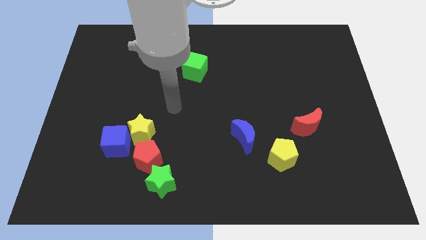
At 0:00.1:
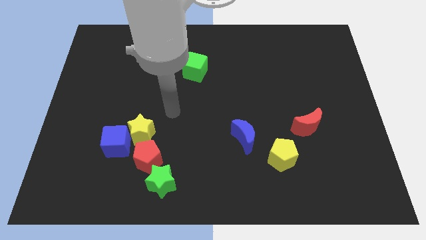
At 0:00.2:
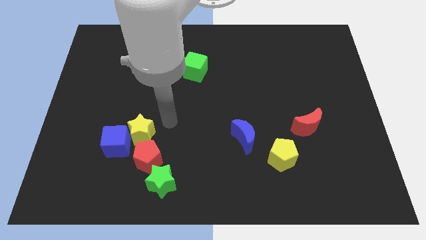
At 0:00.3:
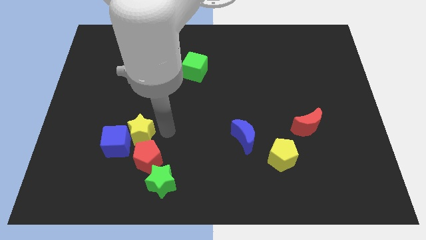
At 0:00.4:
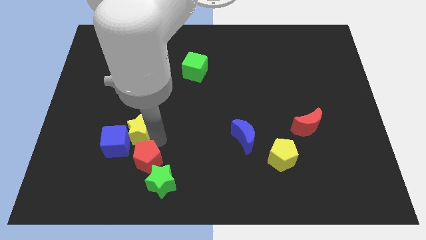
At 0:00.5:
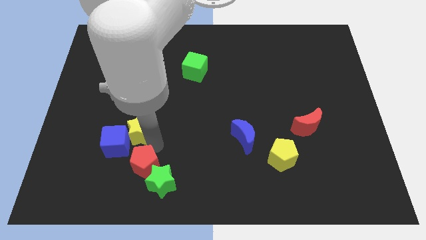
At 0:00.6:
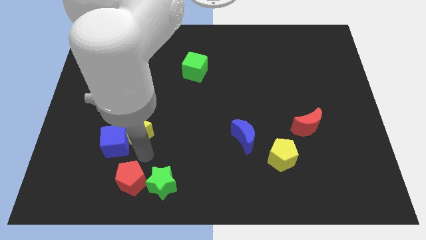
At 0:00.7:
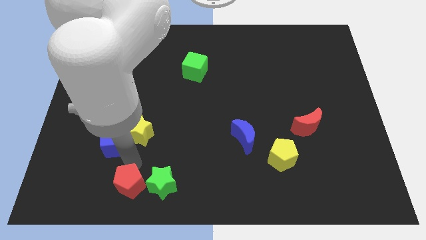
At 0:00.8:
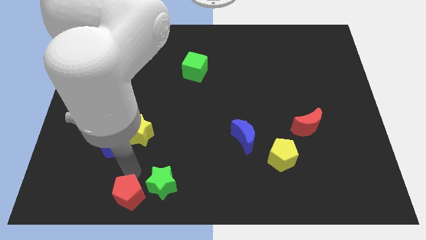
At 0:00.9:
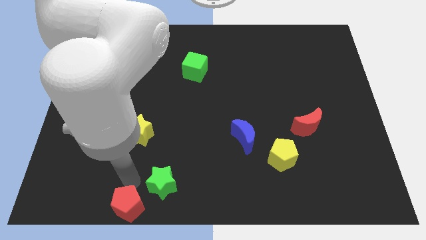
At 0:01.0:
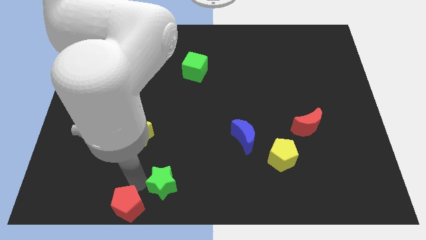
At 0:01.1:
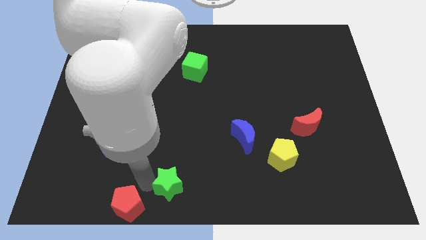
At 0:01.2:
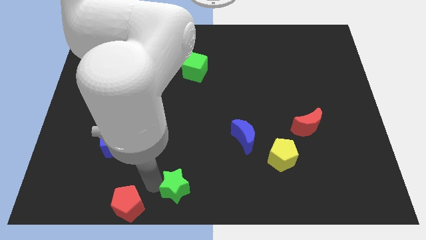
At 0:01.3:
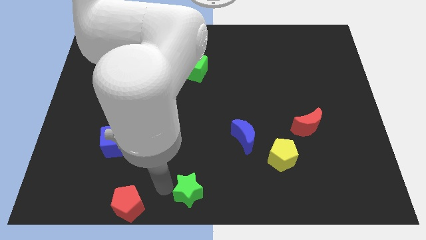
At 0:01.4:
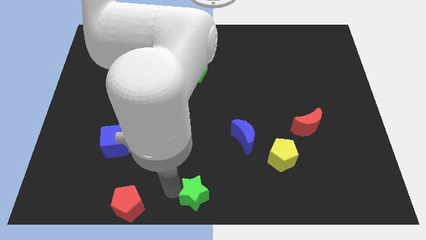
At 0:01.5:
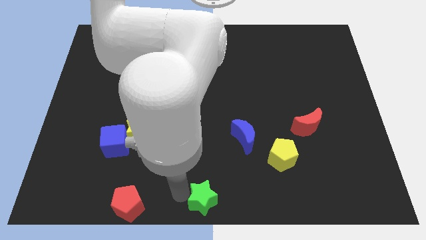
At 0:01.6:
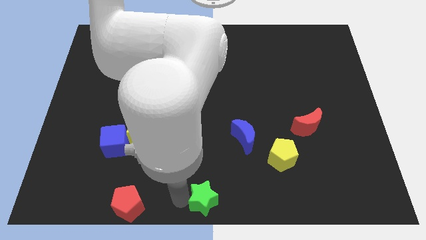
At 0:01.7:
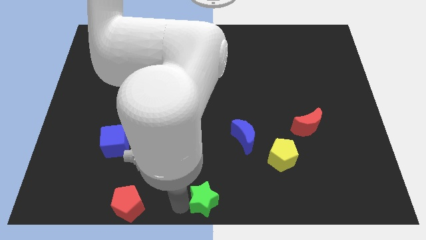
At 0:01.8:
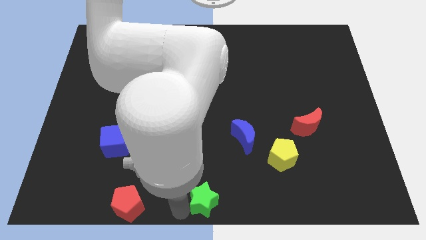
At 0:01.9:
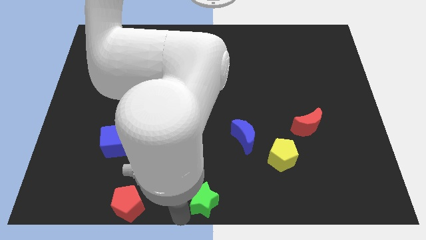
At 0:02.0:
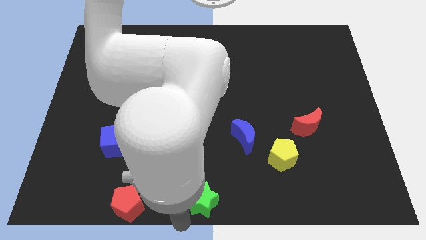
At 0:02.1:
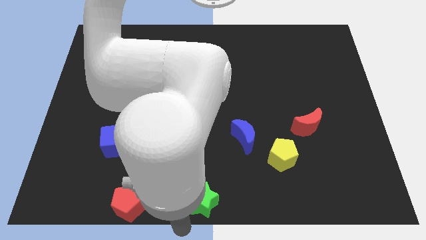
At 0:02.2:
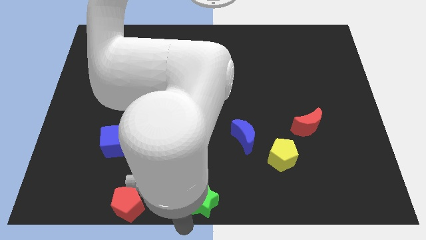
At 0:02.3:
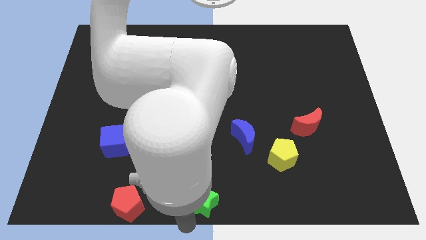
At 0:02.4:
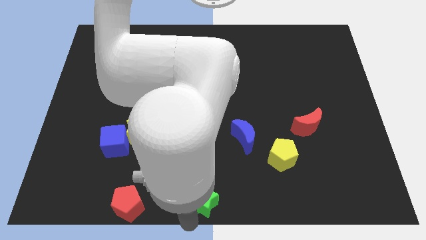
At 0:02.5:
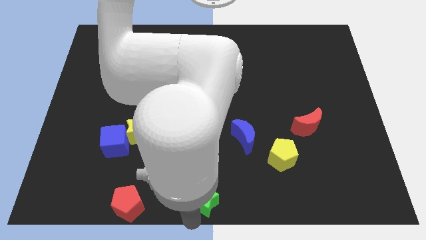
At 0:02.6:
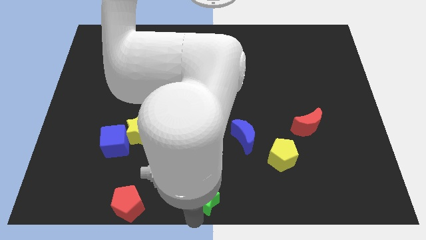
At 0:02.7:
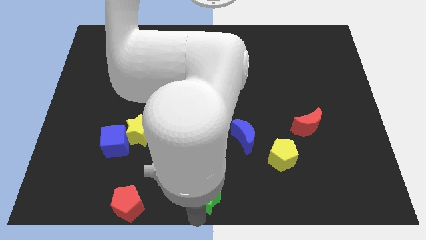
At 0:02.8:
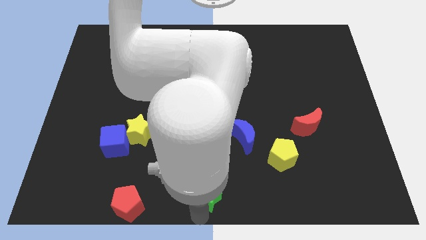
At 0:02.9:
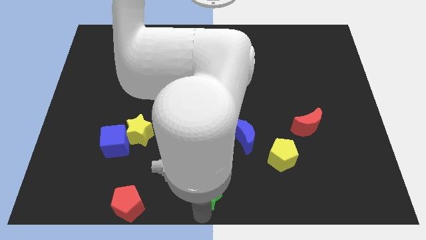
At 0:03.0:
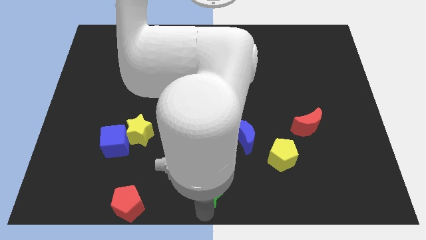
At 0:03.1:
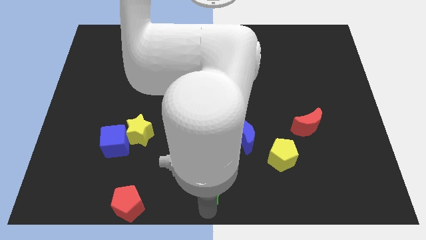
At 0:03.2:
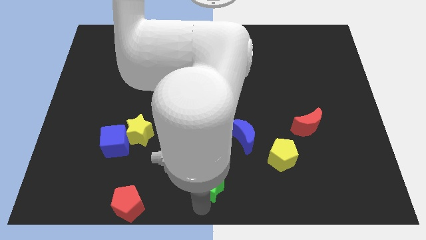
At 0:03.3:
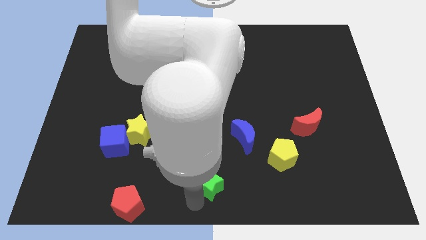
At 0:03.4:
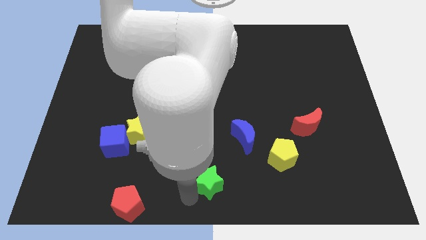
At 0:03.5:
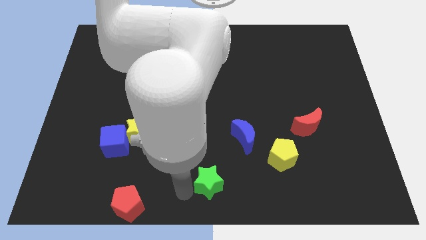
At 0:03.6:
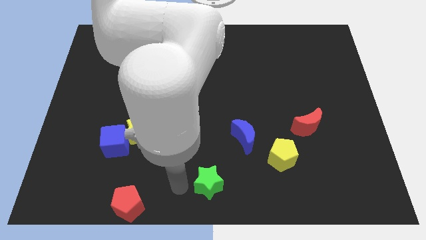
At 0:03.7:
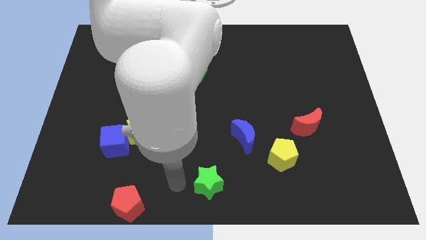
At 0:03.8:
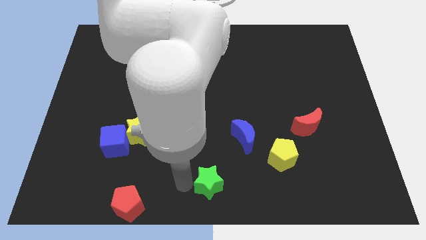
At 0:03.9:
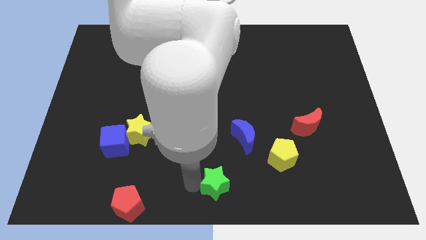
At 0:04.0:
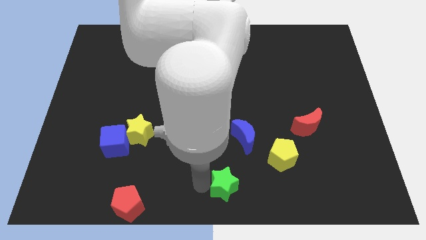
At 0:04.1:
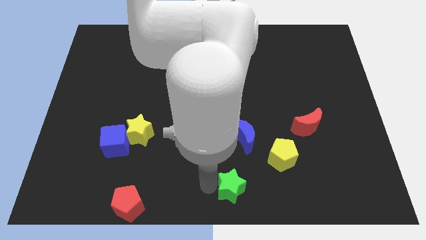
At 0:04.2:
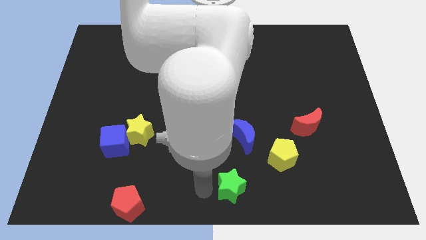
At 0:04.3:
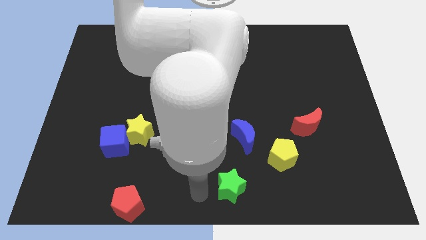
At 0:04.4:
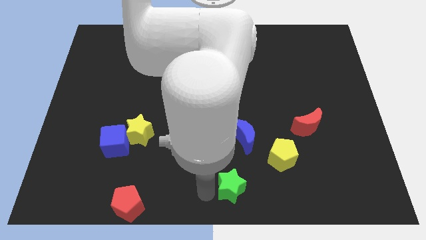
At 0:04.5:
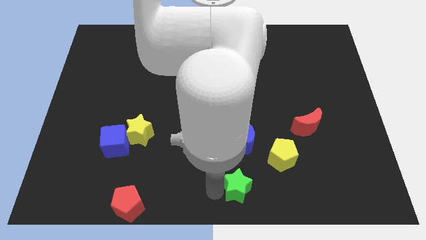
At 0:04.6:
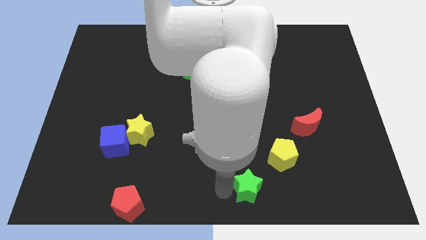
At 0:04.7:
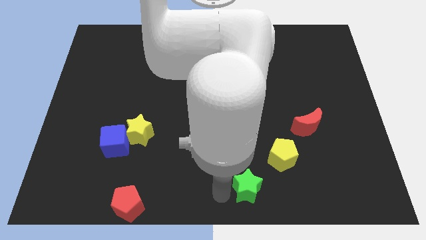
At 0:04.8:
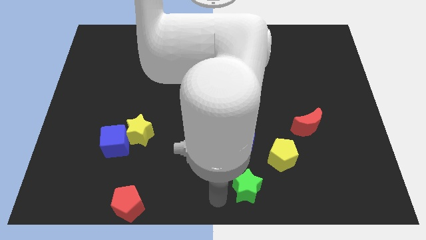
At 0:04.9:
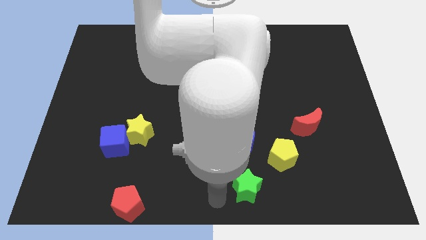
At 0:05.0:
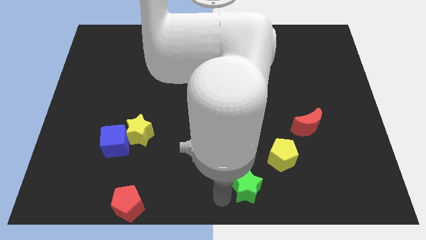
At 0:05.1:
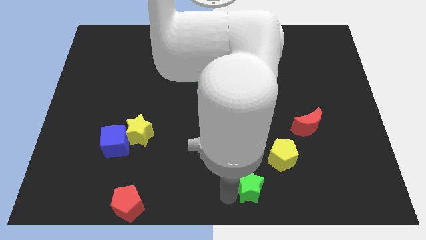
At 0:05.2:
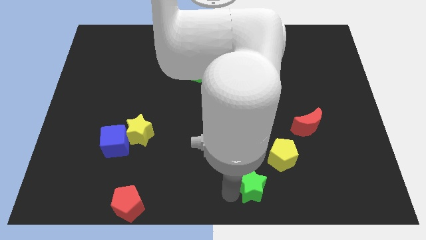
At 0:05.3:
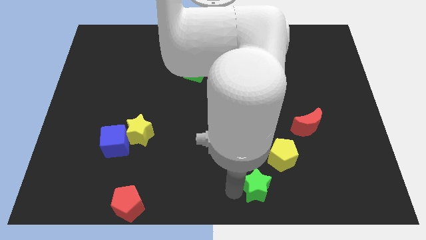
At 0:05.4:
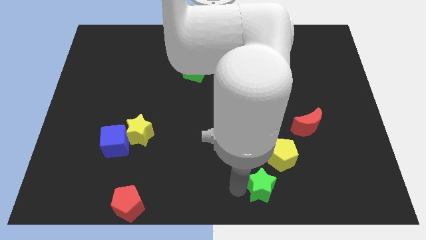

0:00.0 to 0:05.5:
slide the green star to the right

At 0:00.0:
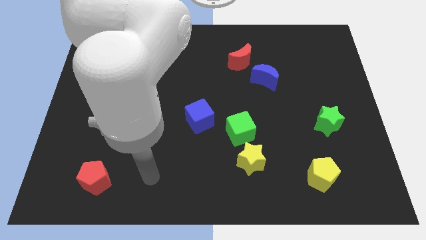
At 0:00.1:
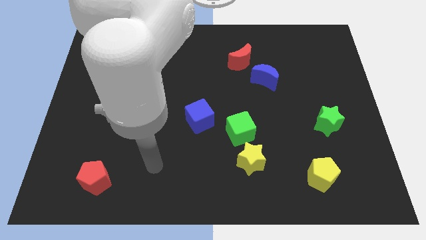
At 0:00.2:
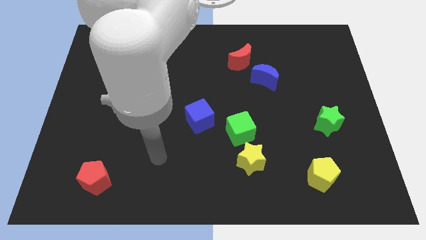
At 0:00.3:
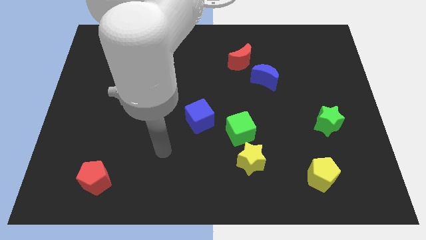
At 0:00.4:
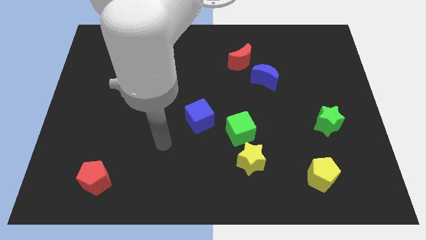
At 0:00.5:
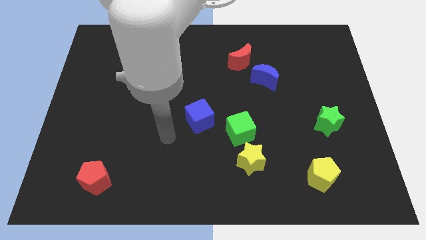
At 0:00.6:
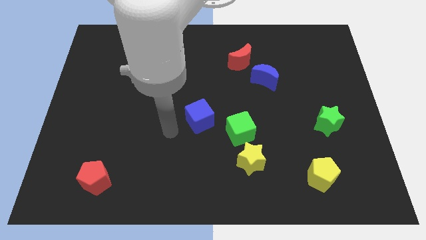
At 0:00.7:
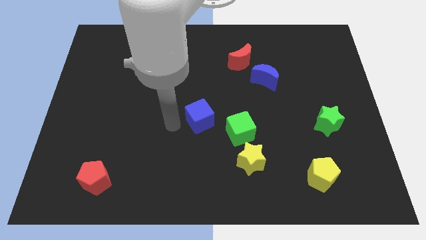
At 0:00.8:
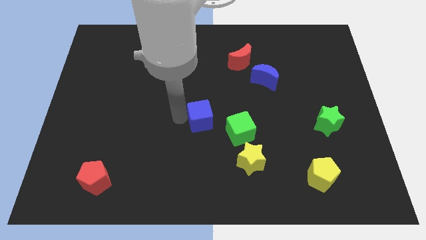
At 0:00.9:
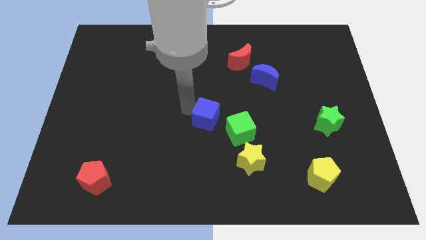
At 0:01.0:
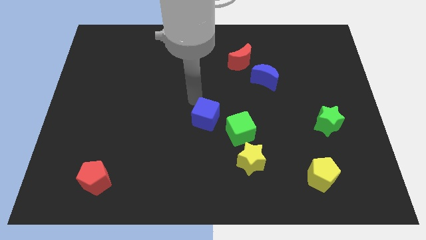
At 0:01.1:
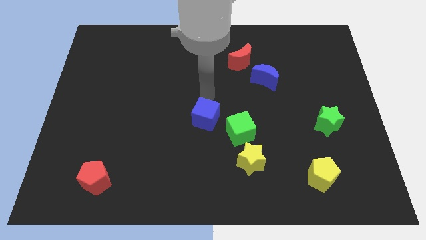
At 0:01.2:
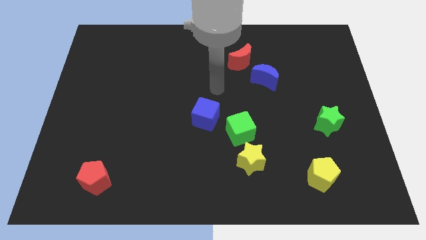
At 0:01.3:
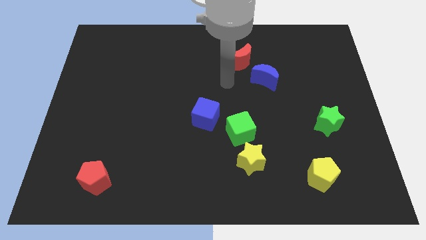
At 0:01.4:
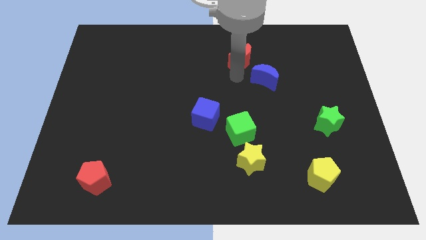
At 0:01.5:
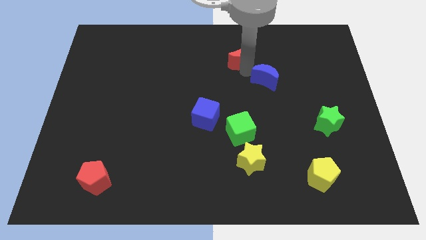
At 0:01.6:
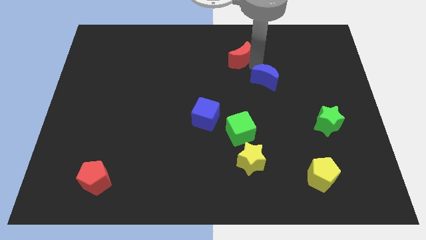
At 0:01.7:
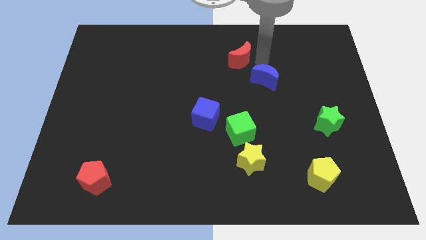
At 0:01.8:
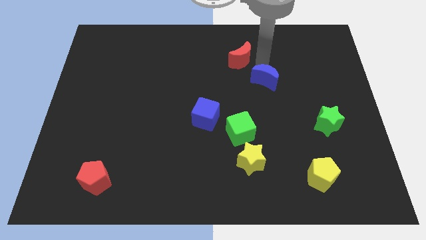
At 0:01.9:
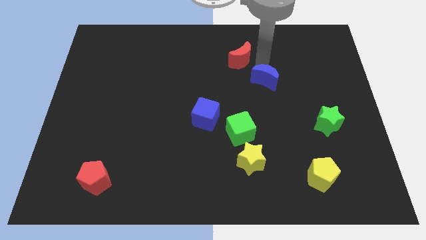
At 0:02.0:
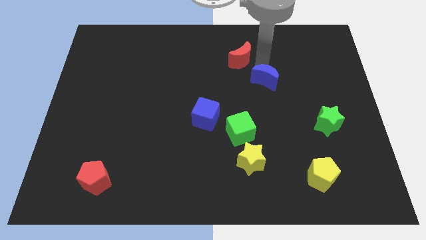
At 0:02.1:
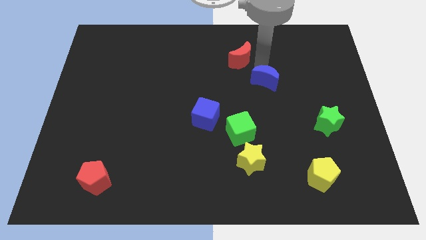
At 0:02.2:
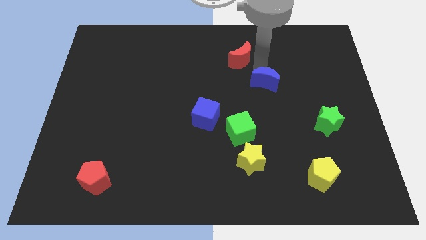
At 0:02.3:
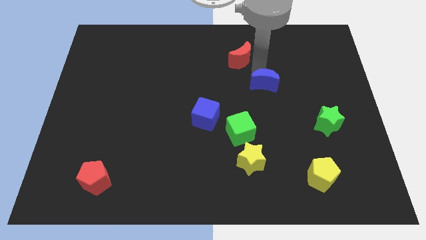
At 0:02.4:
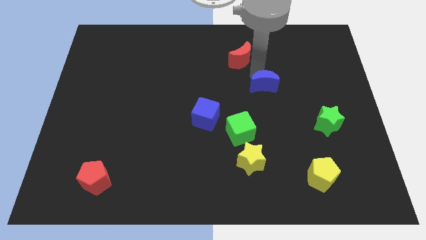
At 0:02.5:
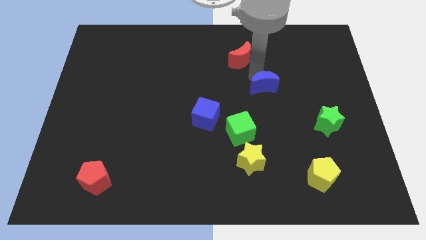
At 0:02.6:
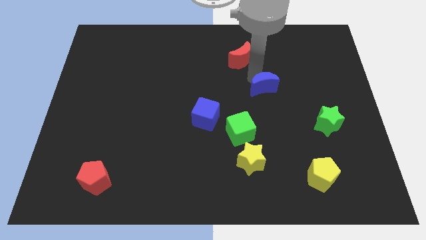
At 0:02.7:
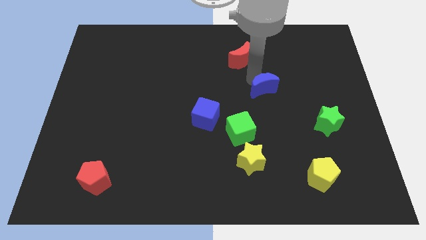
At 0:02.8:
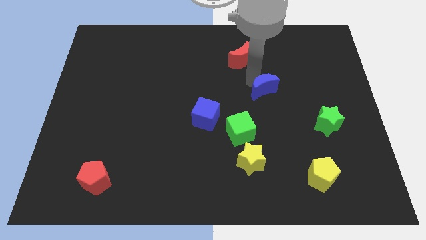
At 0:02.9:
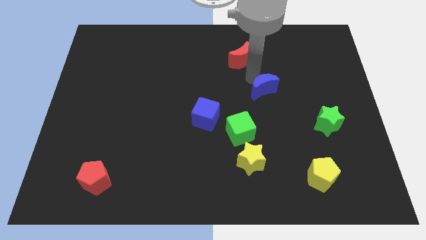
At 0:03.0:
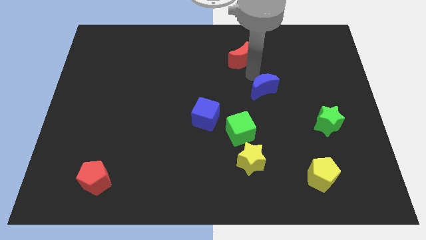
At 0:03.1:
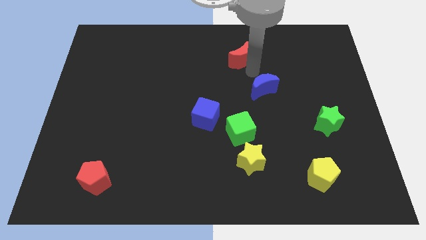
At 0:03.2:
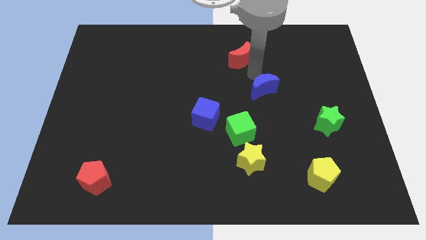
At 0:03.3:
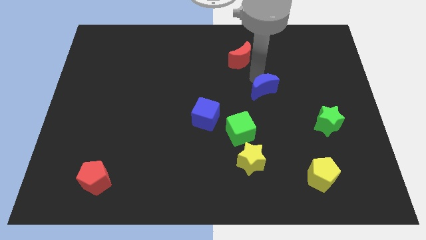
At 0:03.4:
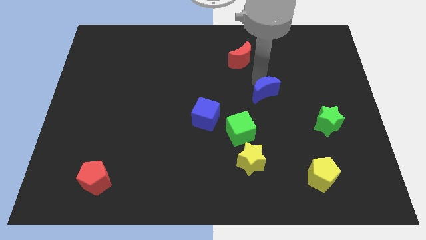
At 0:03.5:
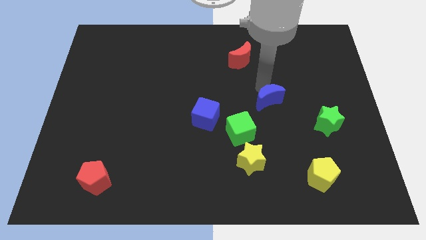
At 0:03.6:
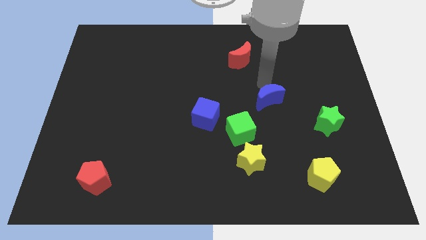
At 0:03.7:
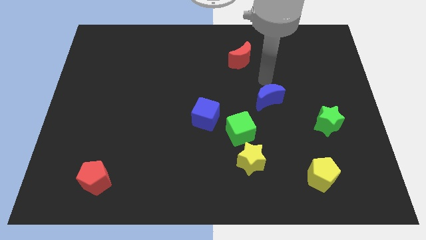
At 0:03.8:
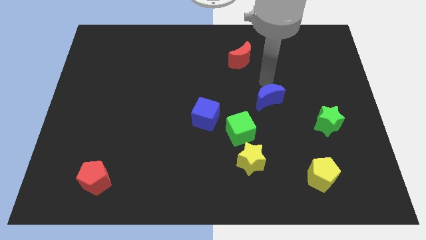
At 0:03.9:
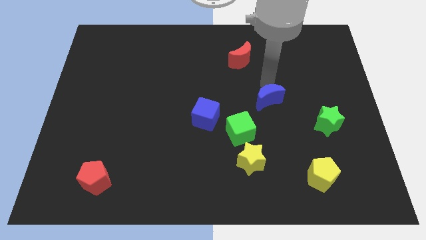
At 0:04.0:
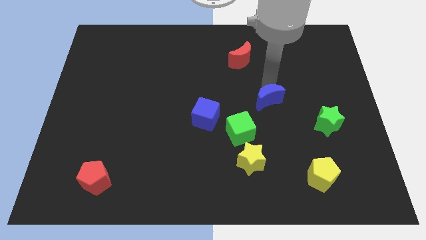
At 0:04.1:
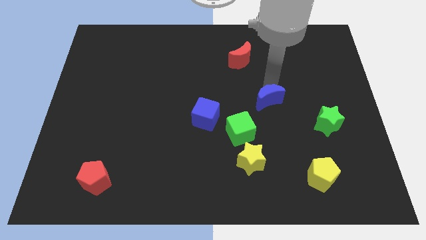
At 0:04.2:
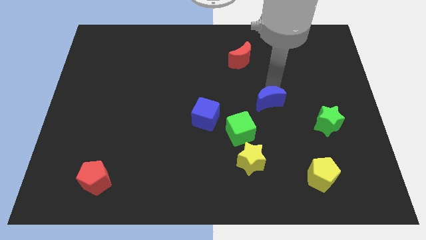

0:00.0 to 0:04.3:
slightly push the blue moon down
